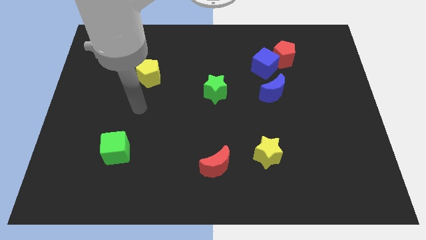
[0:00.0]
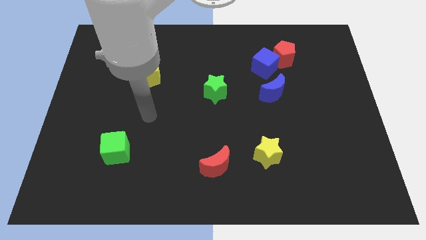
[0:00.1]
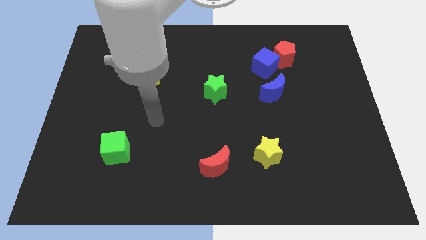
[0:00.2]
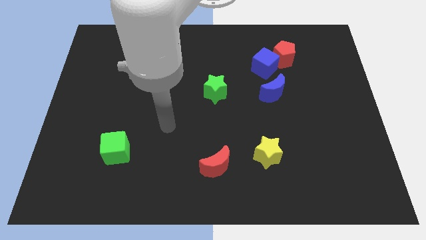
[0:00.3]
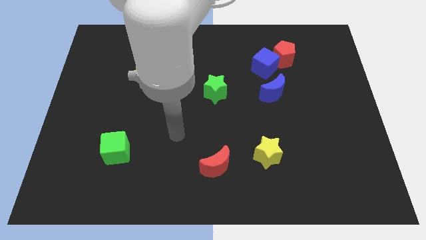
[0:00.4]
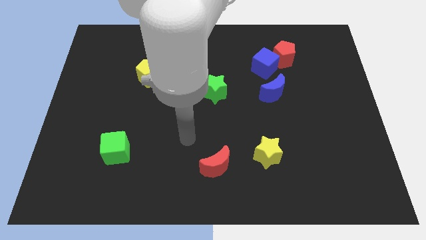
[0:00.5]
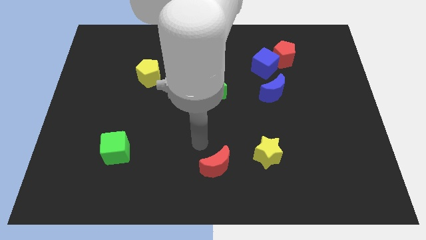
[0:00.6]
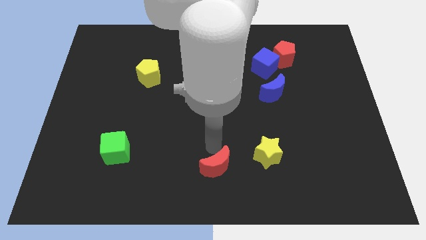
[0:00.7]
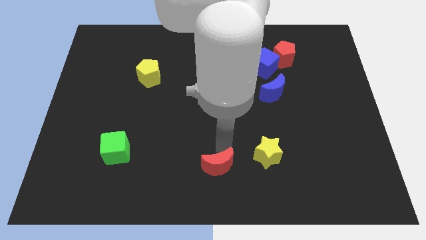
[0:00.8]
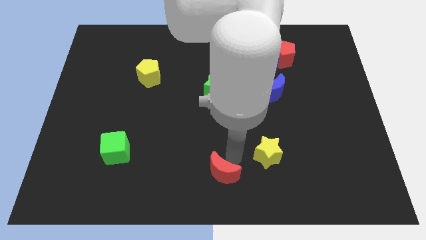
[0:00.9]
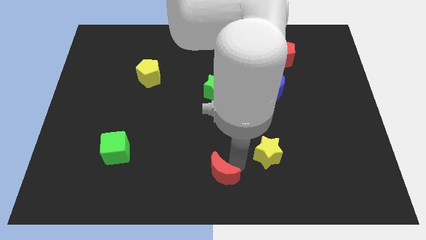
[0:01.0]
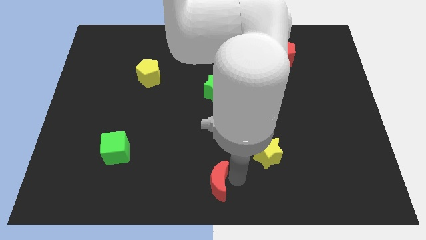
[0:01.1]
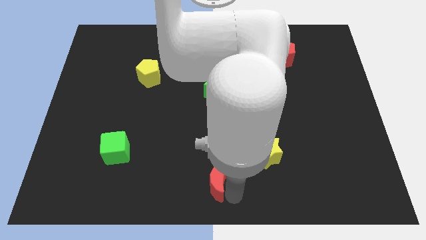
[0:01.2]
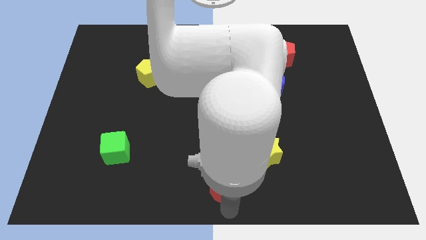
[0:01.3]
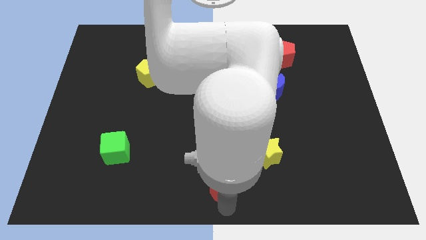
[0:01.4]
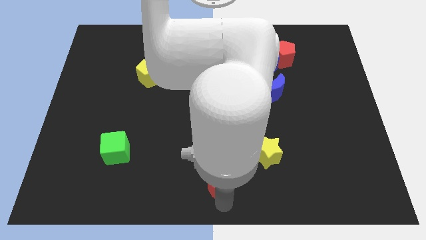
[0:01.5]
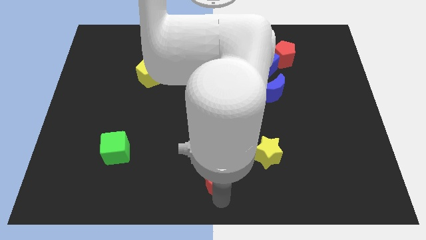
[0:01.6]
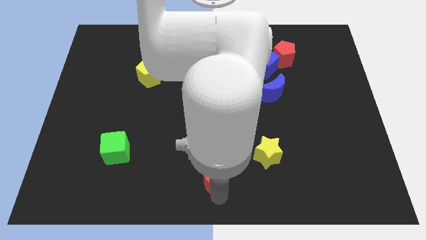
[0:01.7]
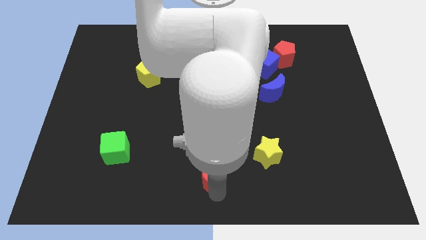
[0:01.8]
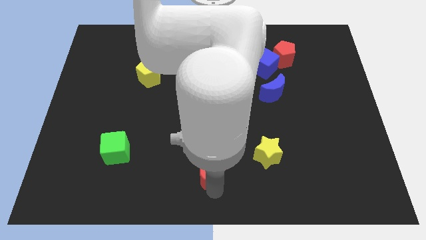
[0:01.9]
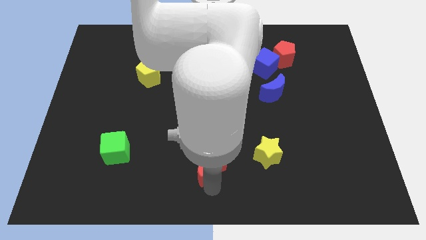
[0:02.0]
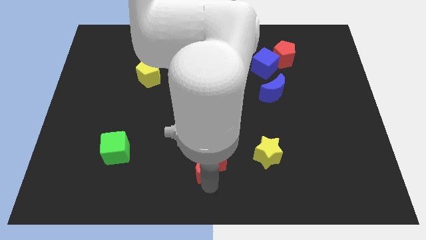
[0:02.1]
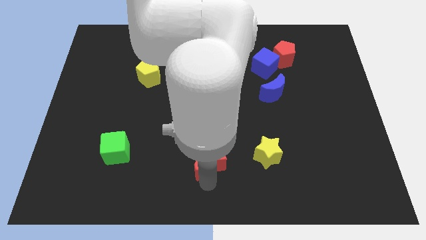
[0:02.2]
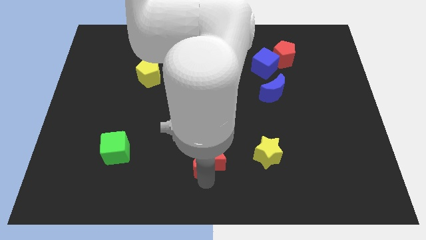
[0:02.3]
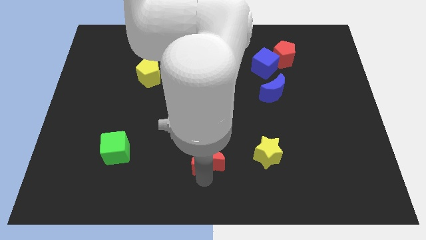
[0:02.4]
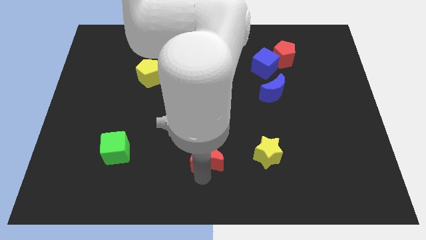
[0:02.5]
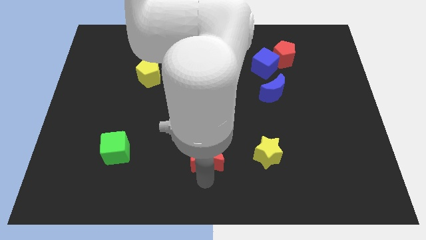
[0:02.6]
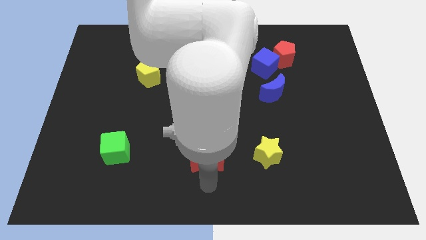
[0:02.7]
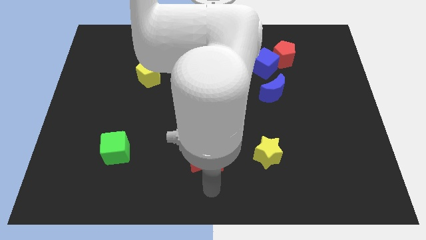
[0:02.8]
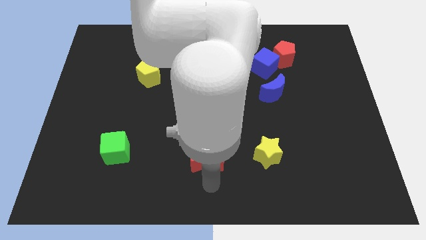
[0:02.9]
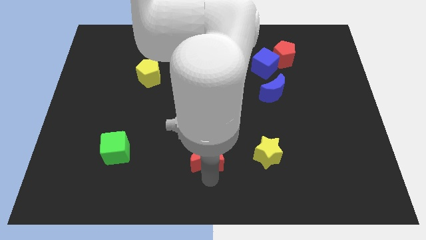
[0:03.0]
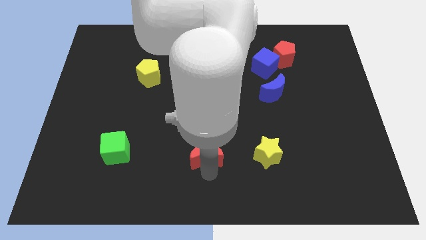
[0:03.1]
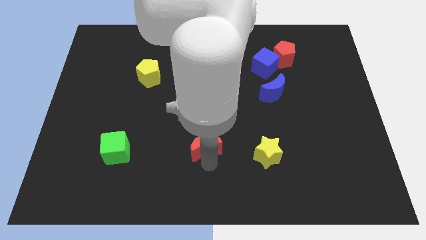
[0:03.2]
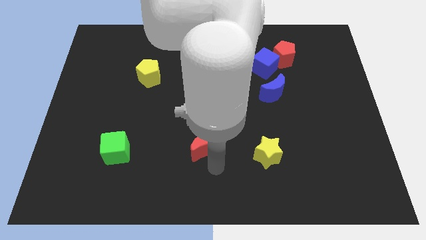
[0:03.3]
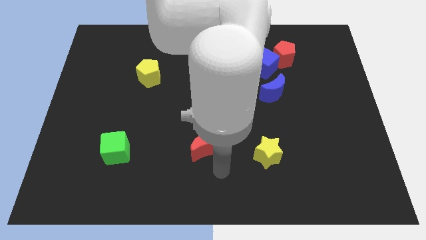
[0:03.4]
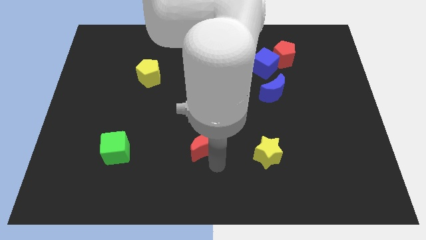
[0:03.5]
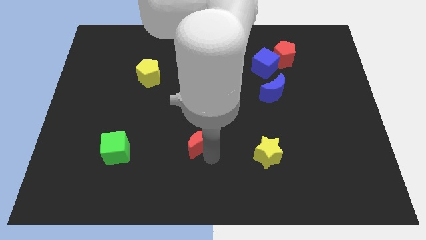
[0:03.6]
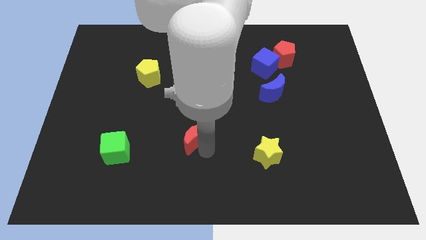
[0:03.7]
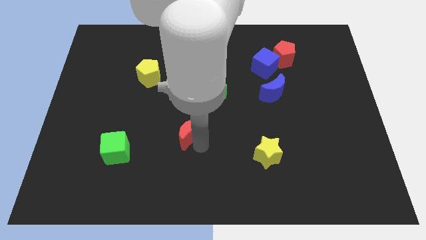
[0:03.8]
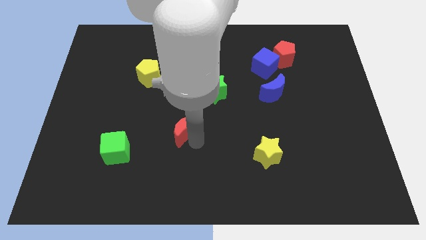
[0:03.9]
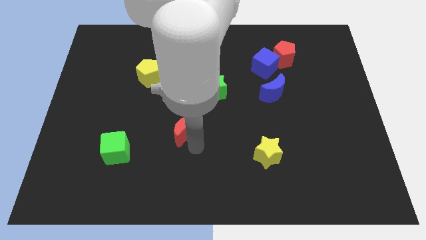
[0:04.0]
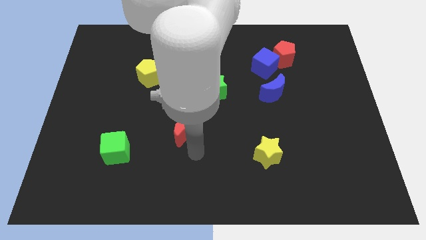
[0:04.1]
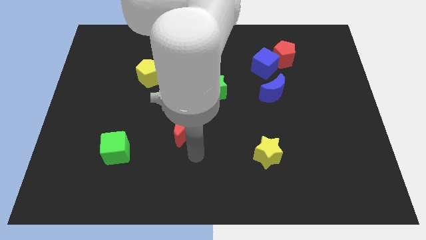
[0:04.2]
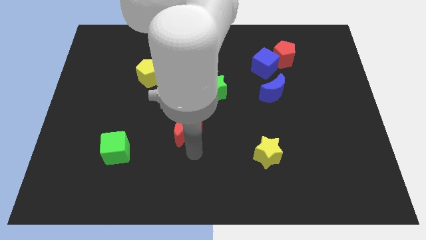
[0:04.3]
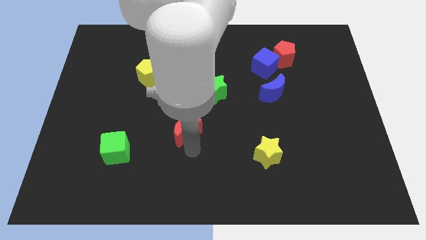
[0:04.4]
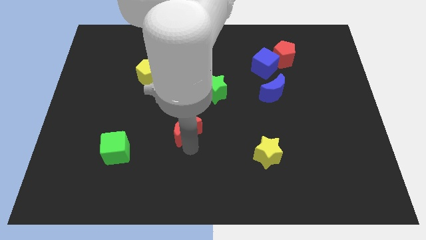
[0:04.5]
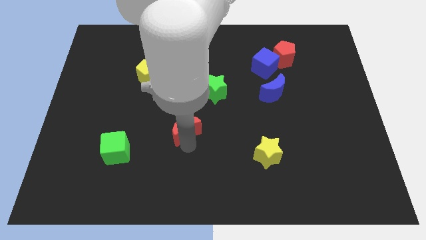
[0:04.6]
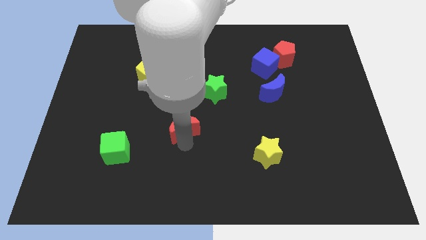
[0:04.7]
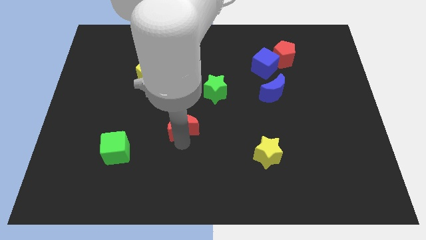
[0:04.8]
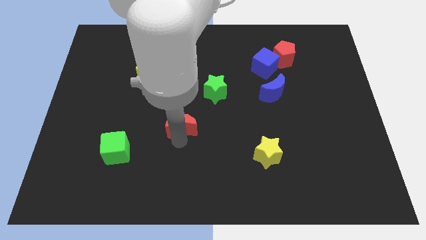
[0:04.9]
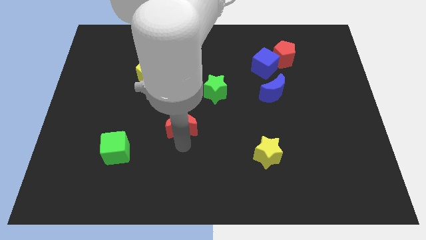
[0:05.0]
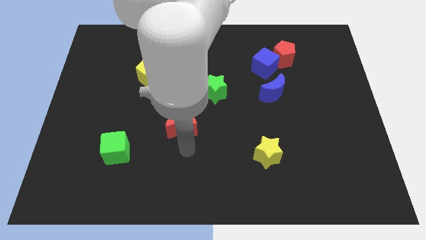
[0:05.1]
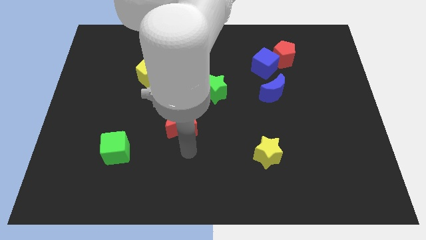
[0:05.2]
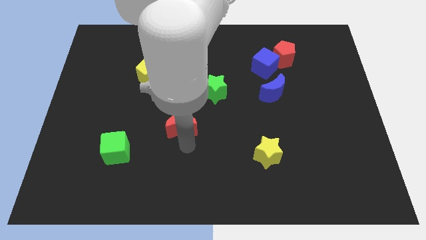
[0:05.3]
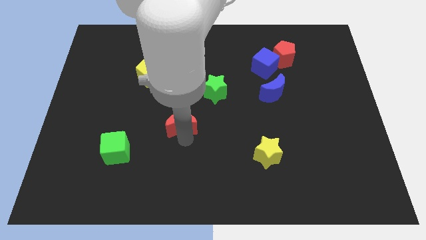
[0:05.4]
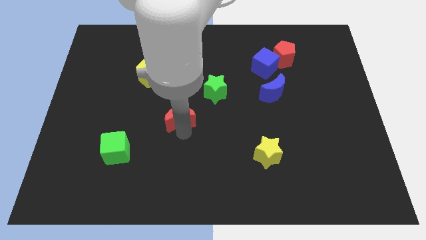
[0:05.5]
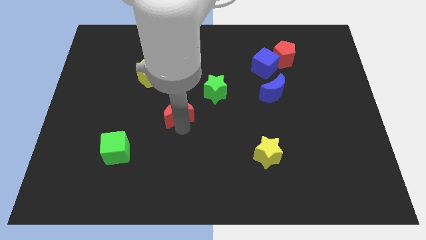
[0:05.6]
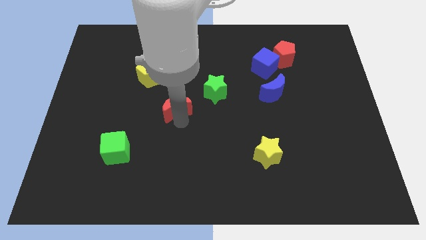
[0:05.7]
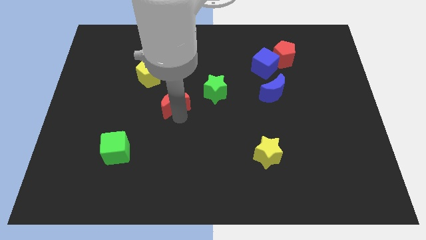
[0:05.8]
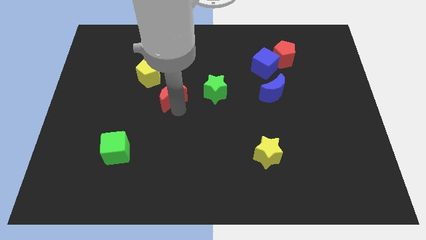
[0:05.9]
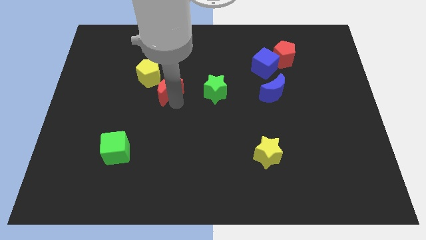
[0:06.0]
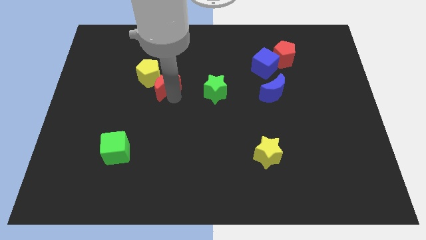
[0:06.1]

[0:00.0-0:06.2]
move the red moon next to the yellow pentagon
